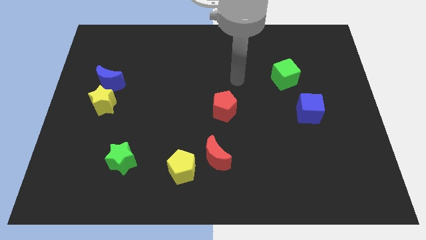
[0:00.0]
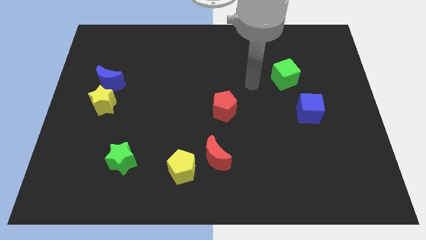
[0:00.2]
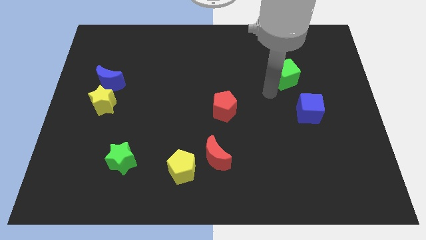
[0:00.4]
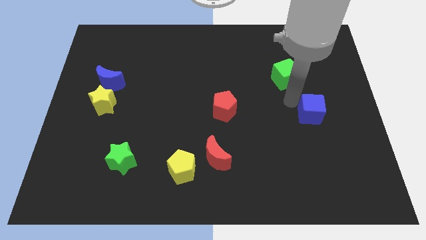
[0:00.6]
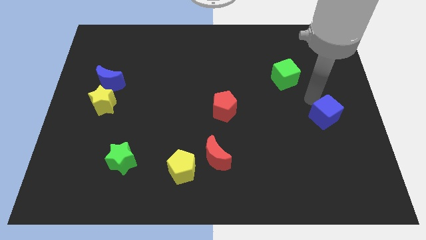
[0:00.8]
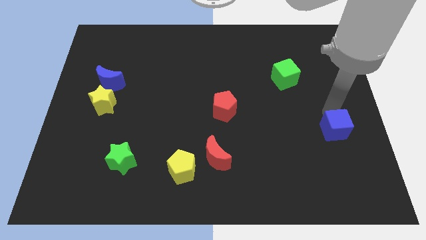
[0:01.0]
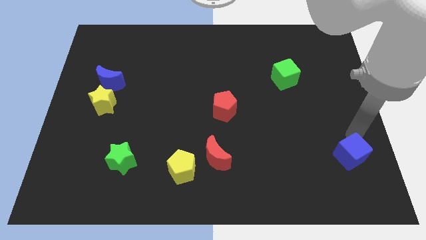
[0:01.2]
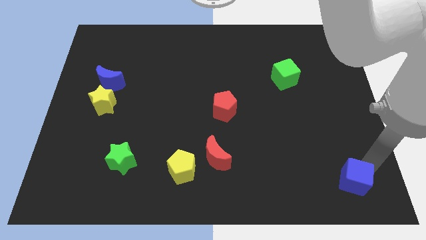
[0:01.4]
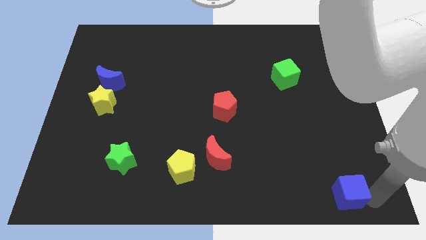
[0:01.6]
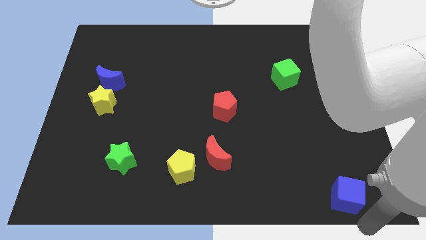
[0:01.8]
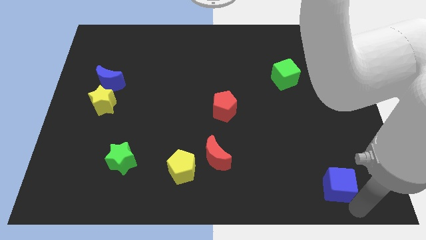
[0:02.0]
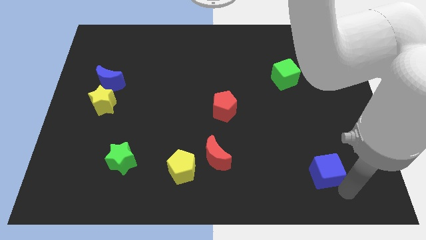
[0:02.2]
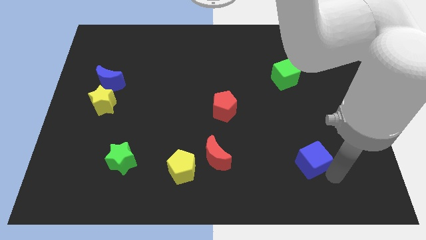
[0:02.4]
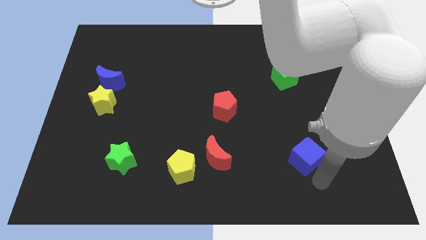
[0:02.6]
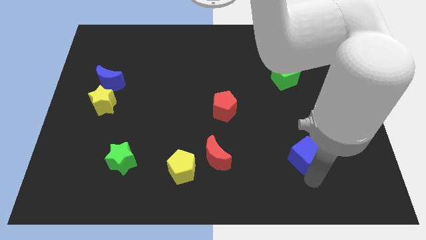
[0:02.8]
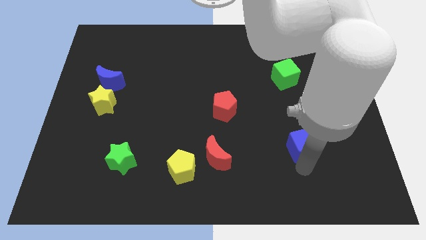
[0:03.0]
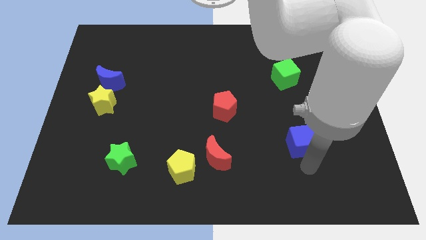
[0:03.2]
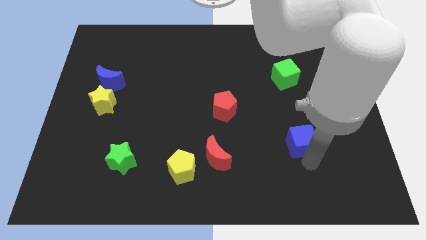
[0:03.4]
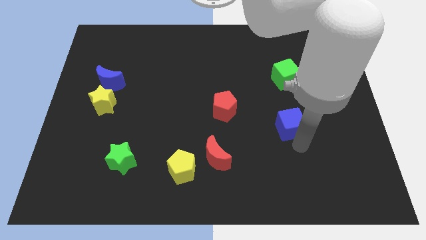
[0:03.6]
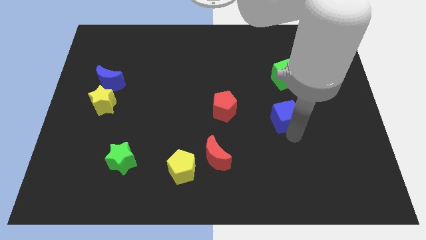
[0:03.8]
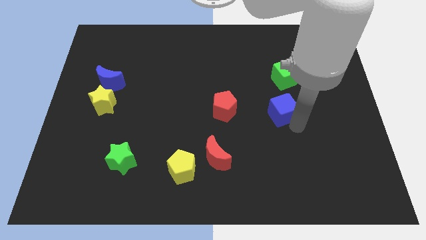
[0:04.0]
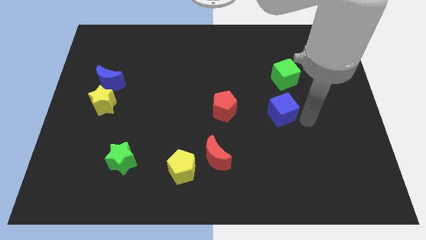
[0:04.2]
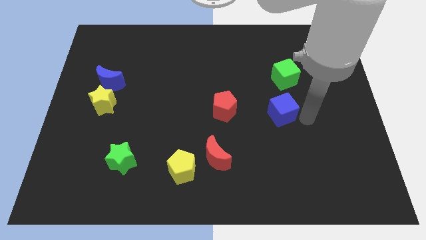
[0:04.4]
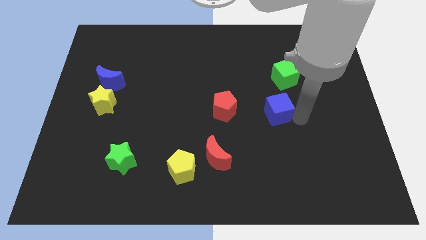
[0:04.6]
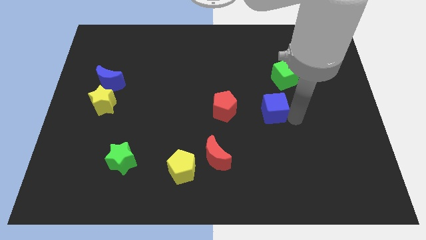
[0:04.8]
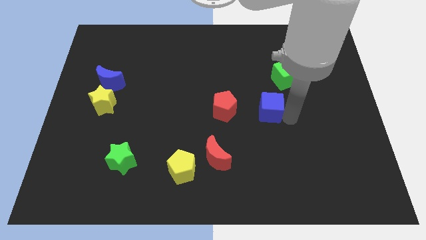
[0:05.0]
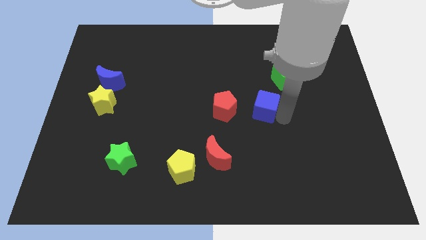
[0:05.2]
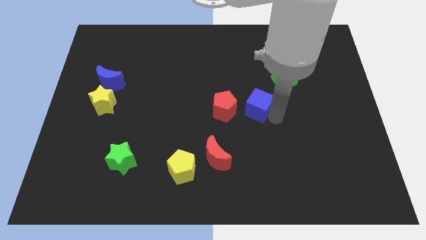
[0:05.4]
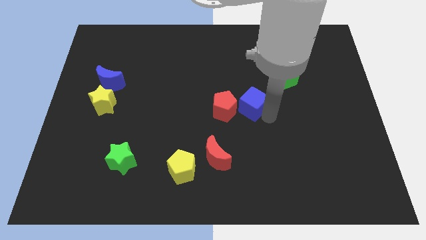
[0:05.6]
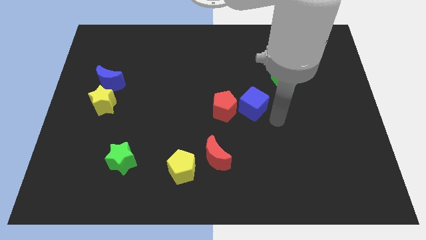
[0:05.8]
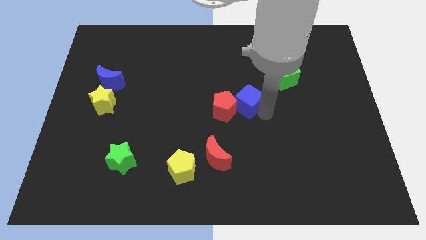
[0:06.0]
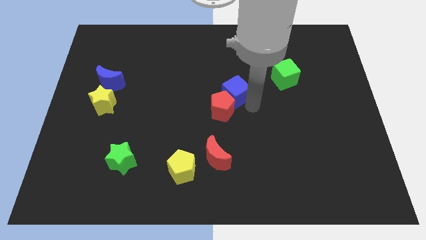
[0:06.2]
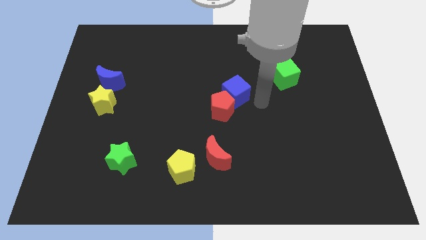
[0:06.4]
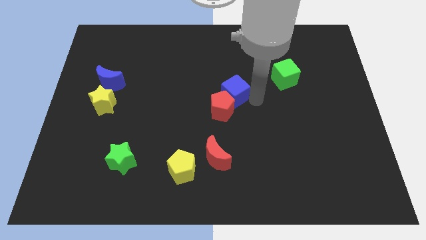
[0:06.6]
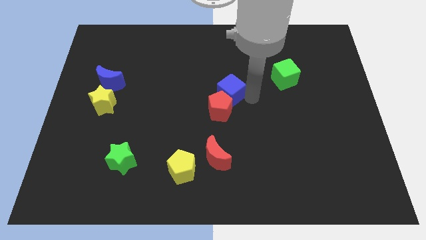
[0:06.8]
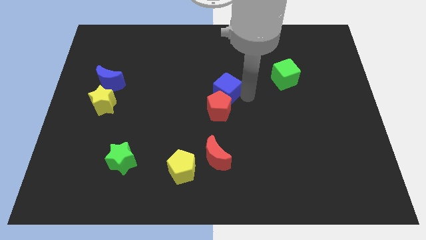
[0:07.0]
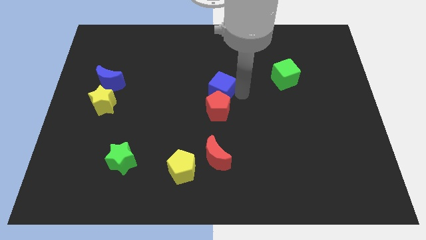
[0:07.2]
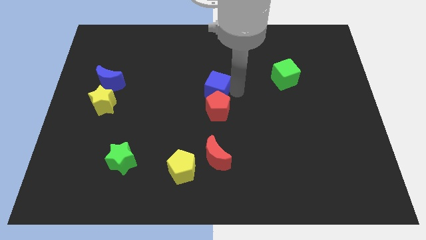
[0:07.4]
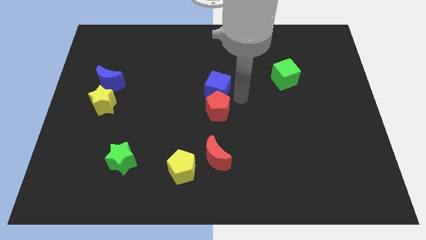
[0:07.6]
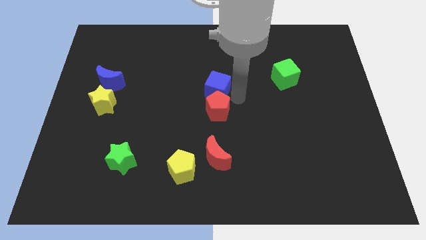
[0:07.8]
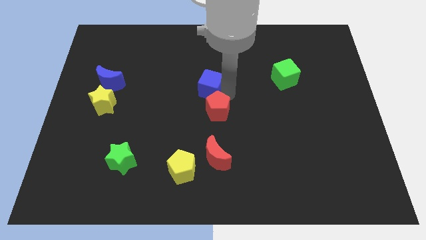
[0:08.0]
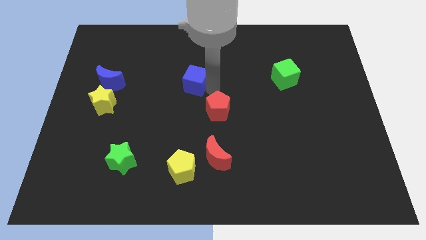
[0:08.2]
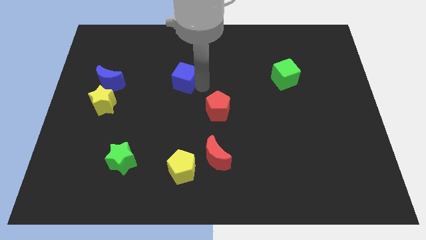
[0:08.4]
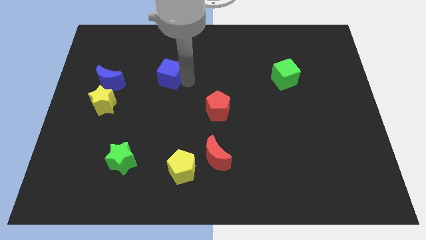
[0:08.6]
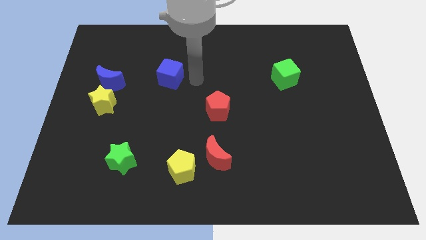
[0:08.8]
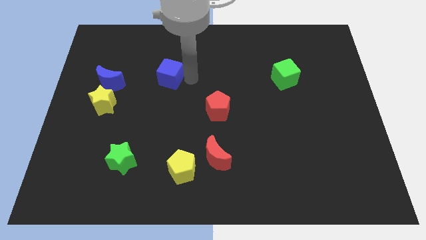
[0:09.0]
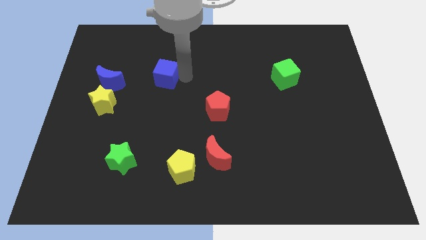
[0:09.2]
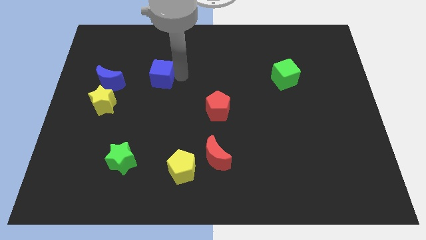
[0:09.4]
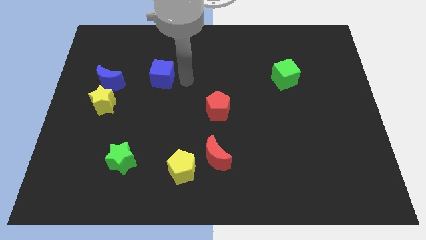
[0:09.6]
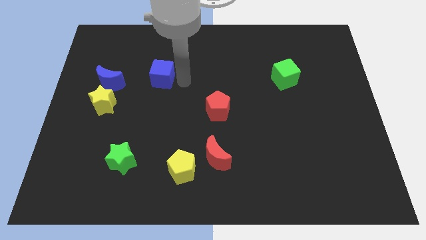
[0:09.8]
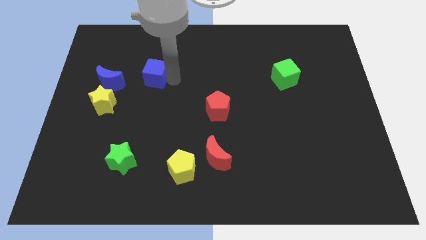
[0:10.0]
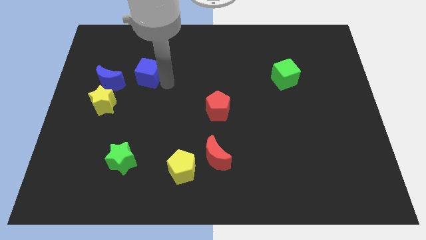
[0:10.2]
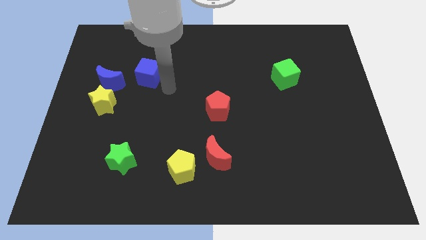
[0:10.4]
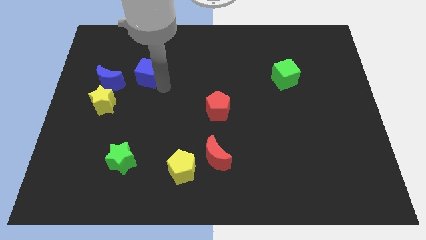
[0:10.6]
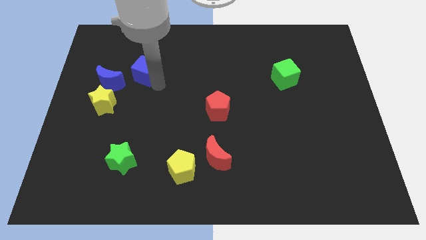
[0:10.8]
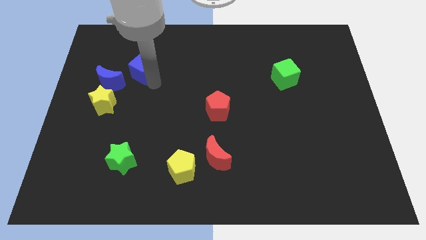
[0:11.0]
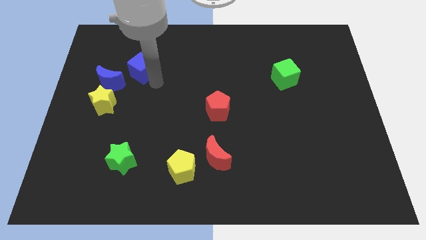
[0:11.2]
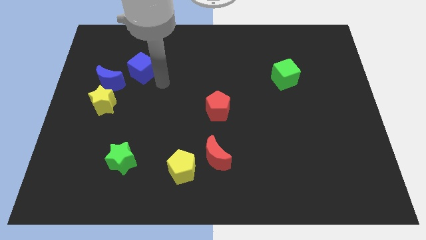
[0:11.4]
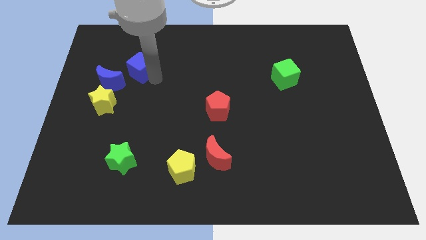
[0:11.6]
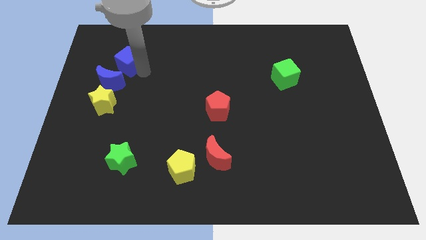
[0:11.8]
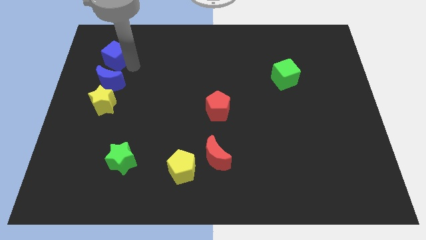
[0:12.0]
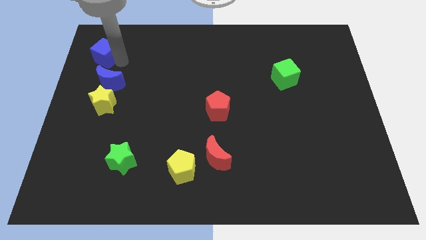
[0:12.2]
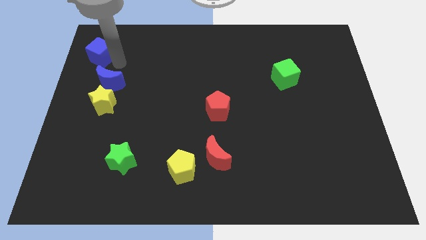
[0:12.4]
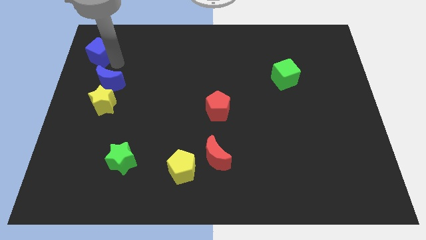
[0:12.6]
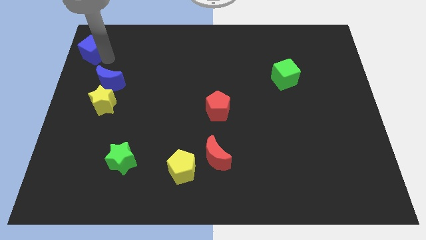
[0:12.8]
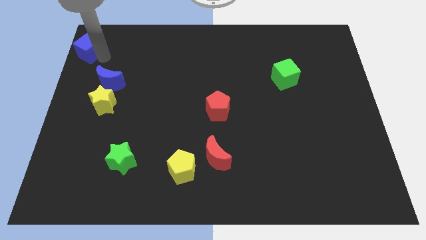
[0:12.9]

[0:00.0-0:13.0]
slide the blue cube to the upper left corner
